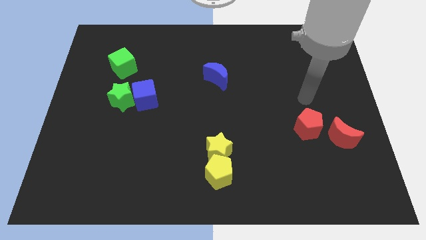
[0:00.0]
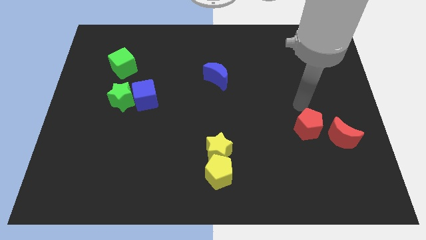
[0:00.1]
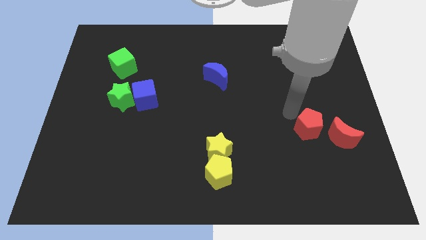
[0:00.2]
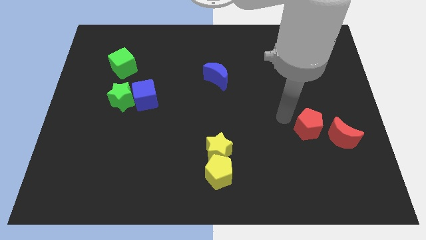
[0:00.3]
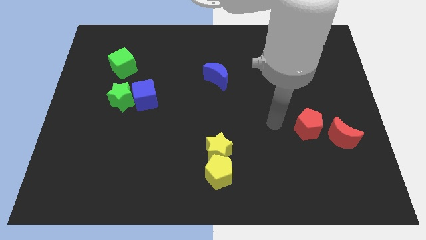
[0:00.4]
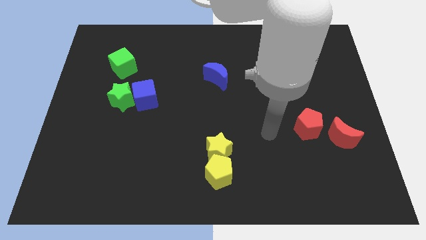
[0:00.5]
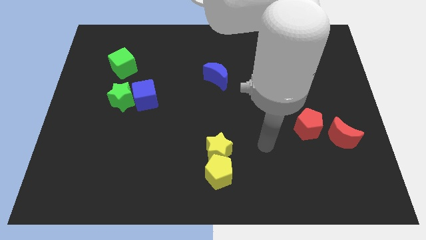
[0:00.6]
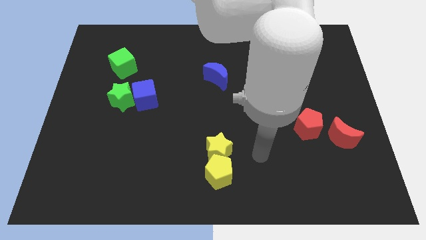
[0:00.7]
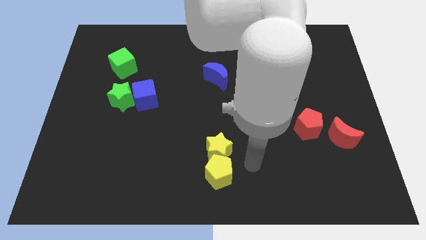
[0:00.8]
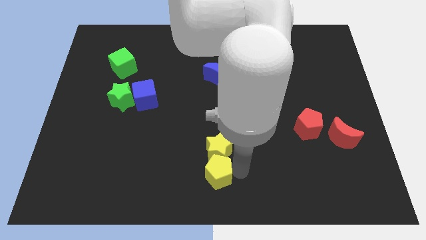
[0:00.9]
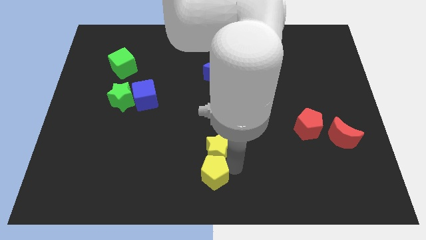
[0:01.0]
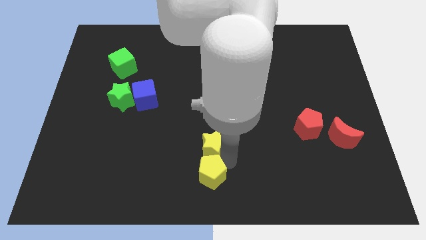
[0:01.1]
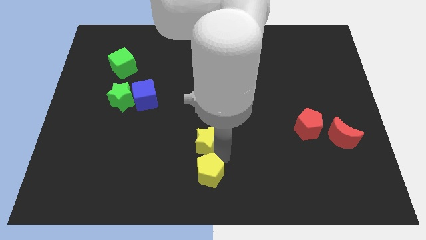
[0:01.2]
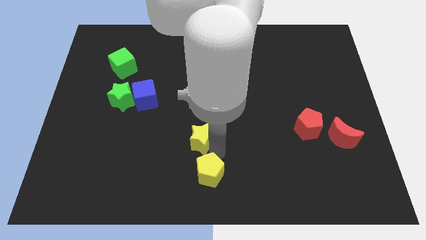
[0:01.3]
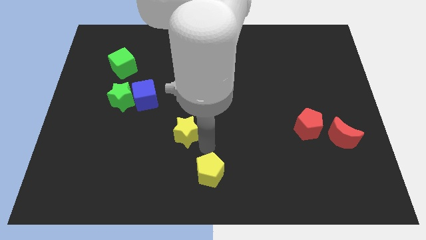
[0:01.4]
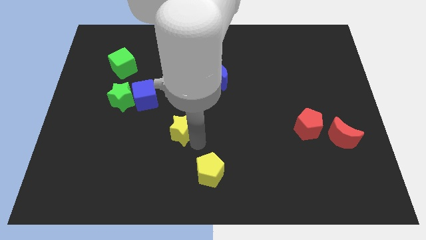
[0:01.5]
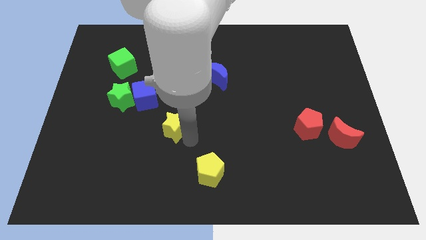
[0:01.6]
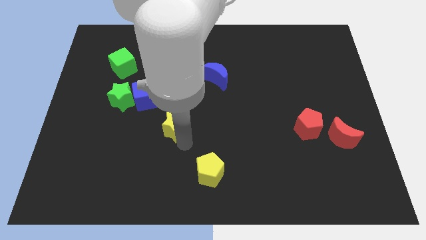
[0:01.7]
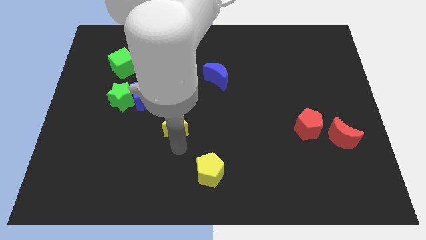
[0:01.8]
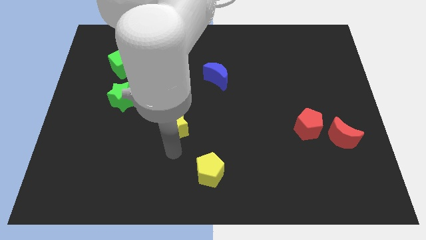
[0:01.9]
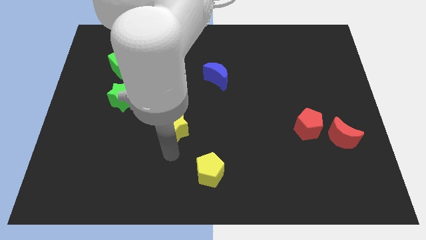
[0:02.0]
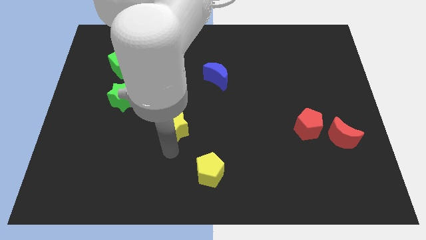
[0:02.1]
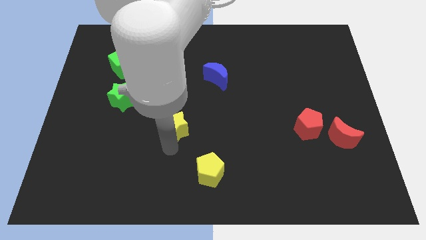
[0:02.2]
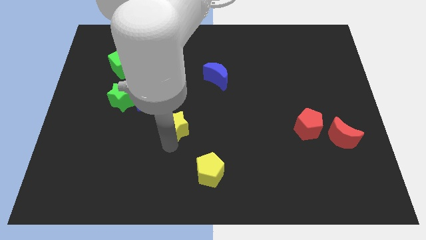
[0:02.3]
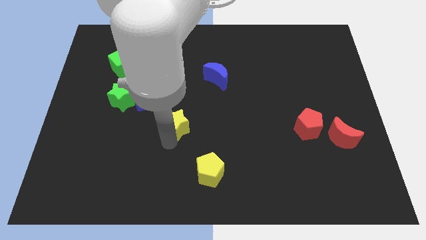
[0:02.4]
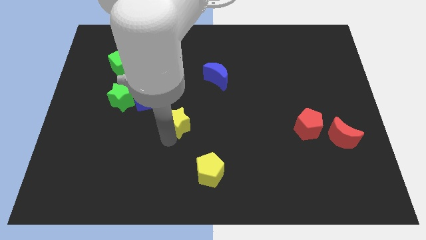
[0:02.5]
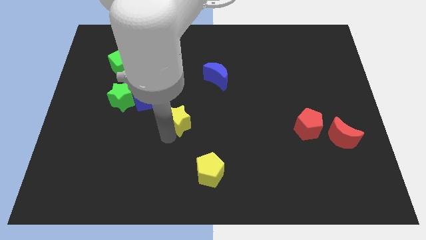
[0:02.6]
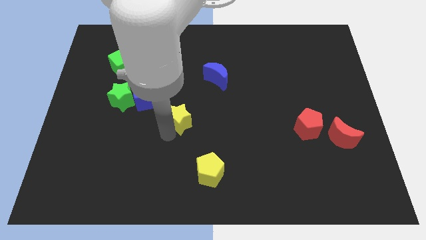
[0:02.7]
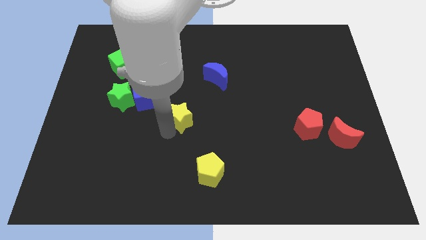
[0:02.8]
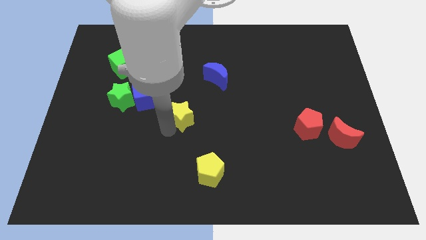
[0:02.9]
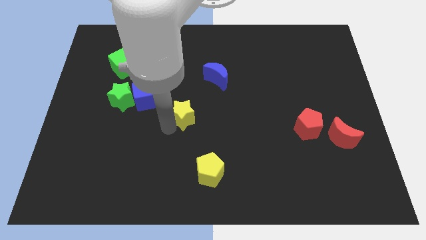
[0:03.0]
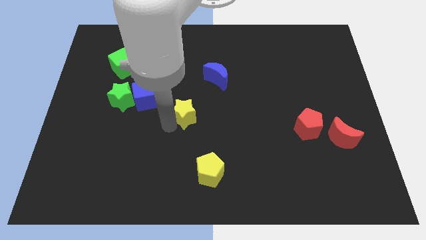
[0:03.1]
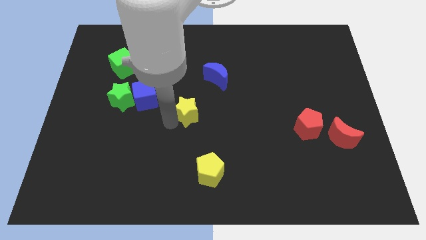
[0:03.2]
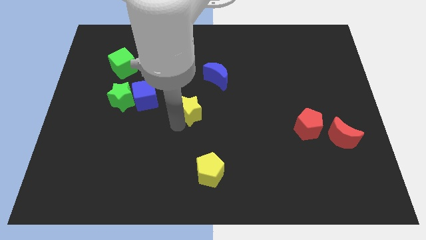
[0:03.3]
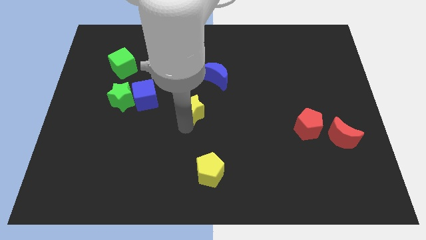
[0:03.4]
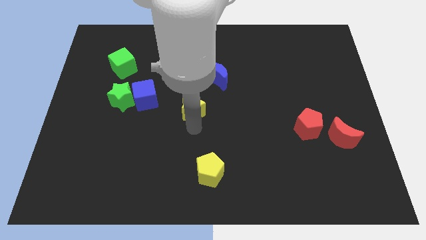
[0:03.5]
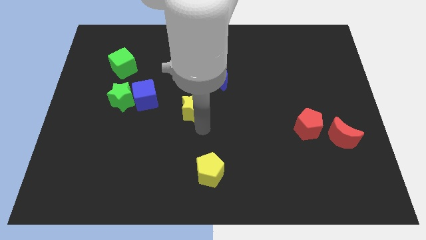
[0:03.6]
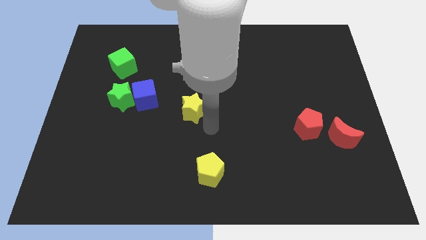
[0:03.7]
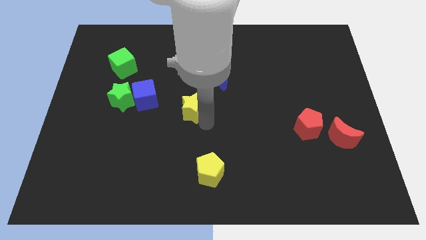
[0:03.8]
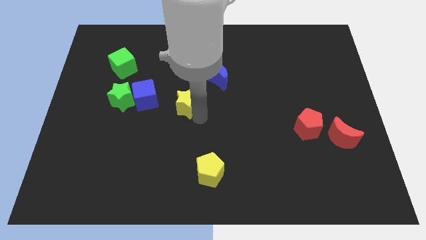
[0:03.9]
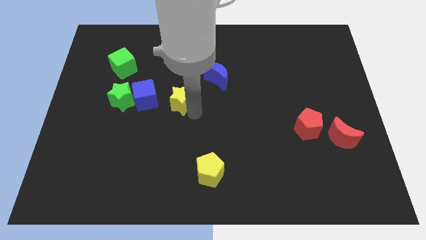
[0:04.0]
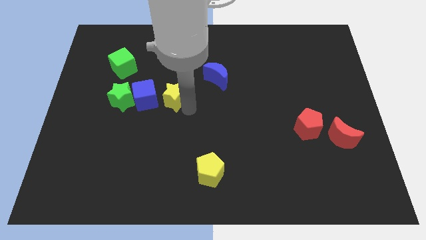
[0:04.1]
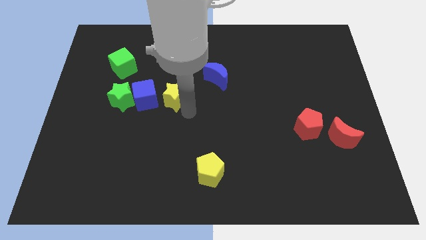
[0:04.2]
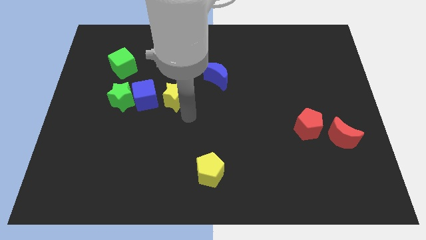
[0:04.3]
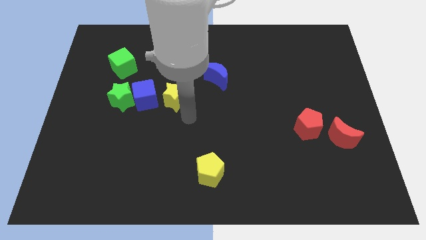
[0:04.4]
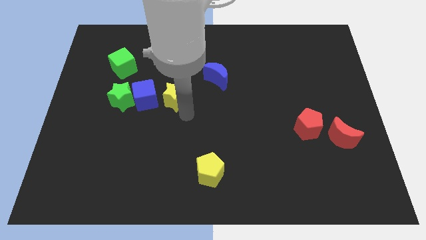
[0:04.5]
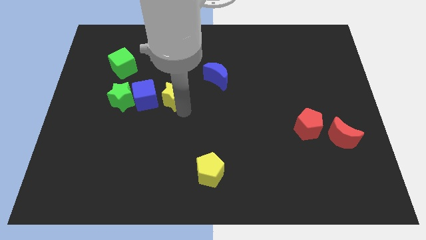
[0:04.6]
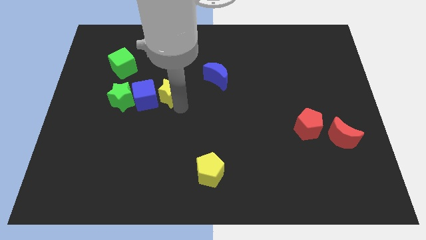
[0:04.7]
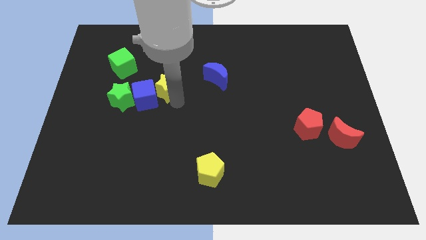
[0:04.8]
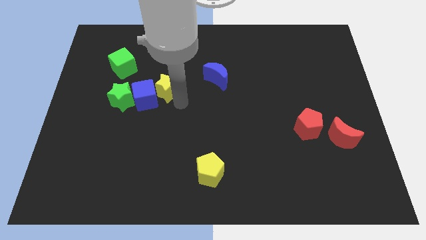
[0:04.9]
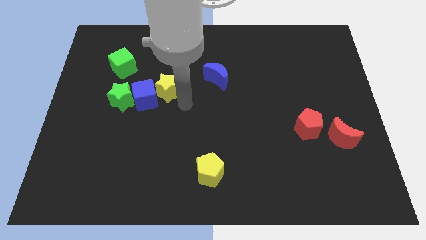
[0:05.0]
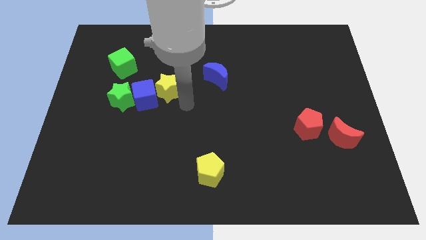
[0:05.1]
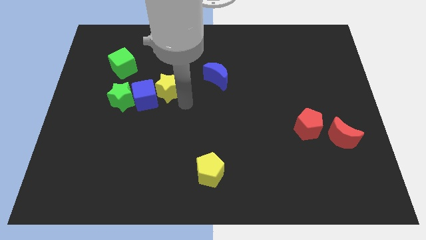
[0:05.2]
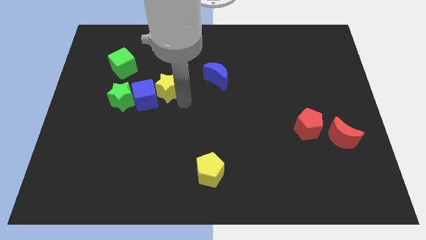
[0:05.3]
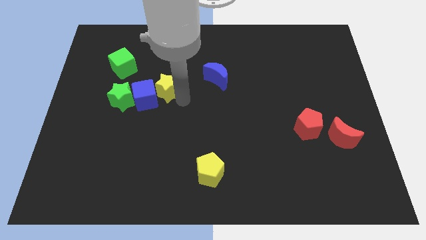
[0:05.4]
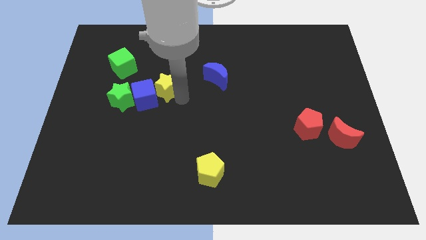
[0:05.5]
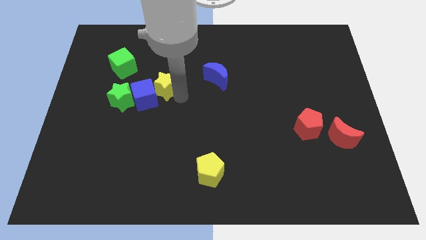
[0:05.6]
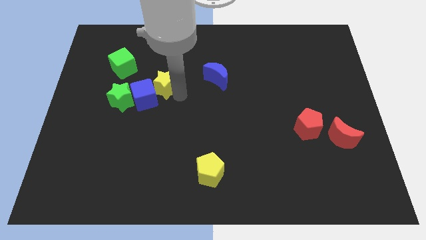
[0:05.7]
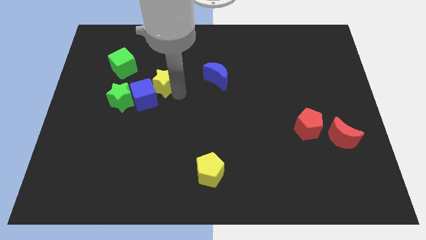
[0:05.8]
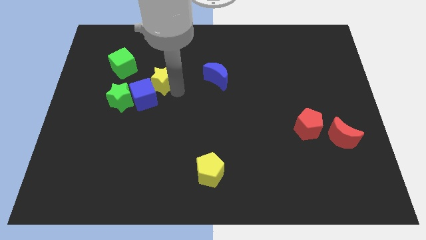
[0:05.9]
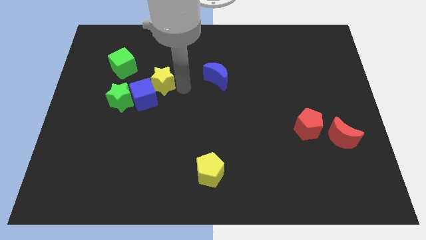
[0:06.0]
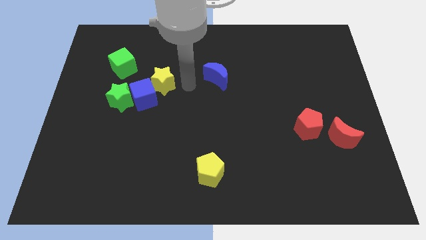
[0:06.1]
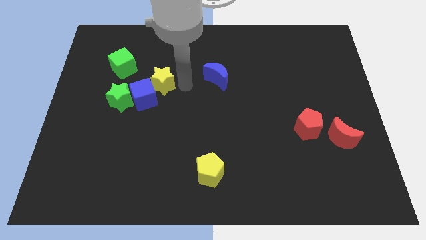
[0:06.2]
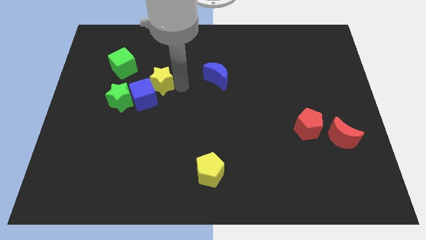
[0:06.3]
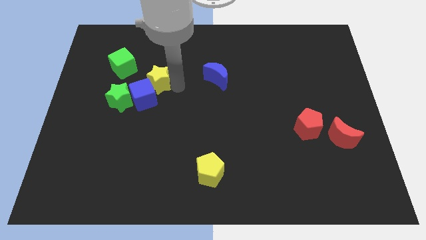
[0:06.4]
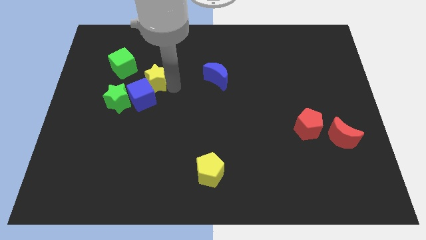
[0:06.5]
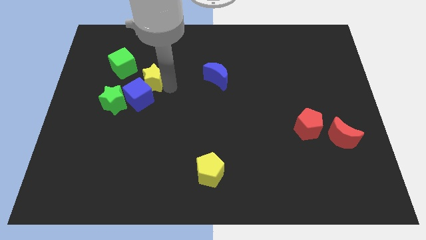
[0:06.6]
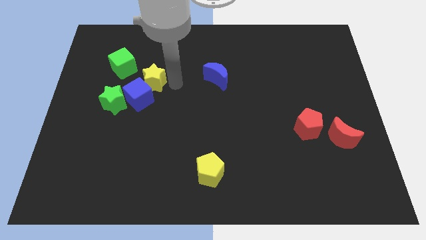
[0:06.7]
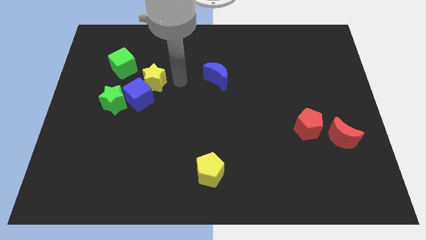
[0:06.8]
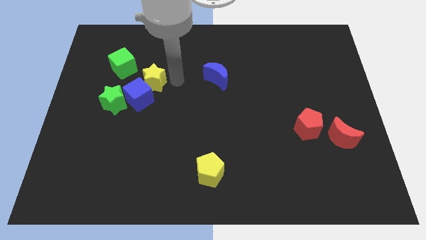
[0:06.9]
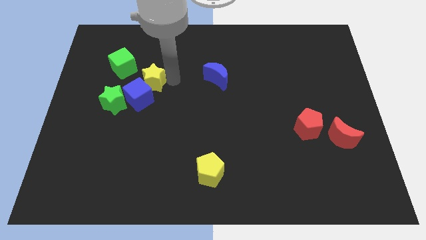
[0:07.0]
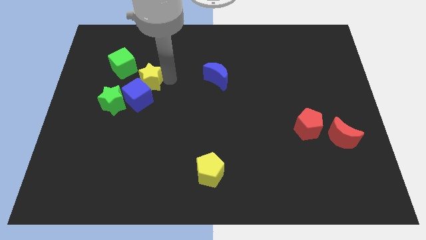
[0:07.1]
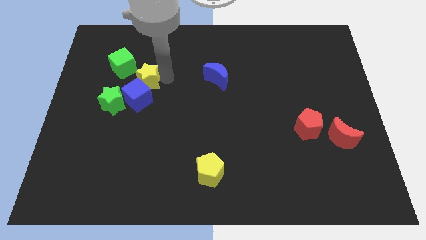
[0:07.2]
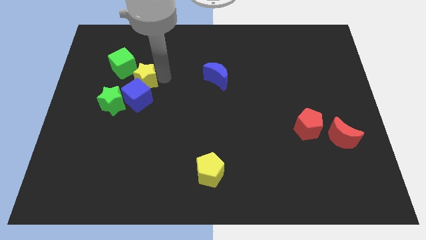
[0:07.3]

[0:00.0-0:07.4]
move the yellow star diagonally up and to the left of the blue cube
